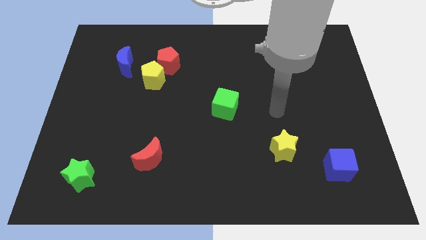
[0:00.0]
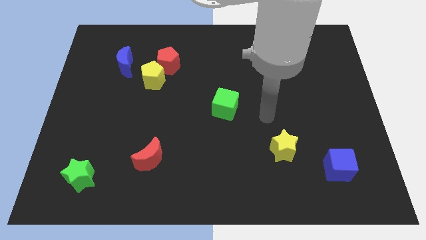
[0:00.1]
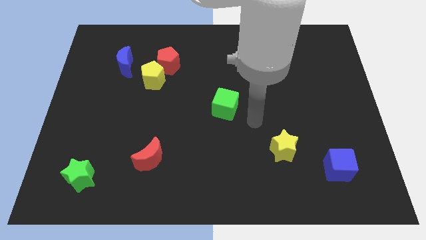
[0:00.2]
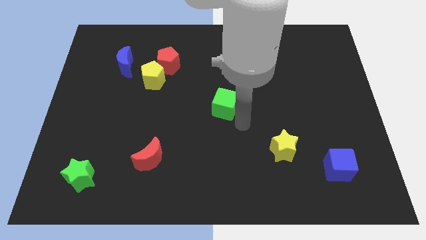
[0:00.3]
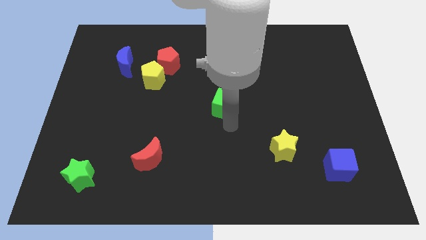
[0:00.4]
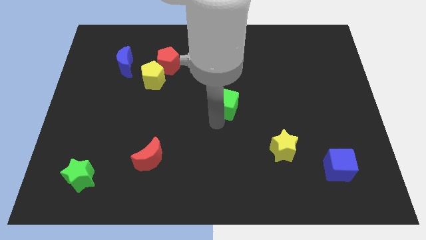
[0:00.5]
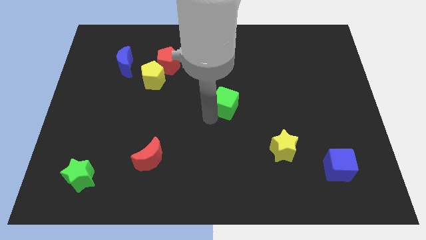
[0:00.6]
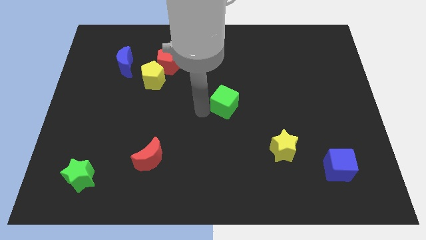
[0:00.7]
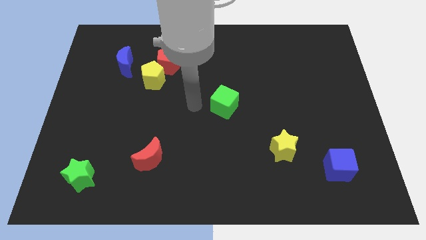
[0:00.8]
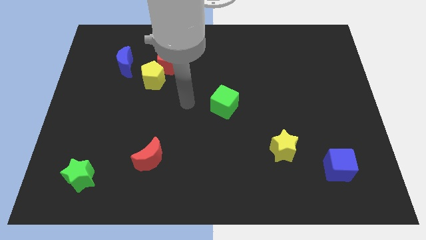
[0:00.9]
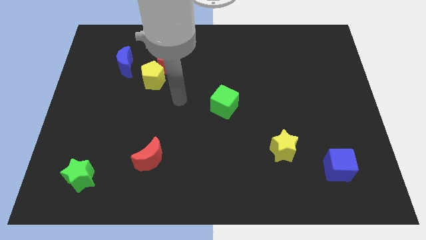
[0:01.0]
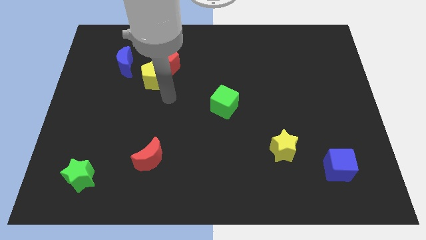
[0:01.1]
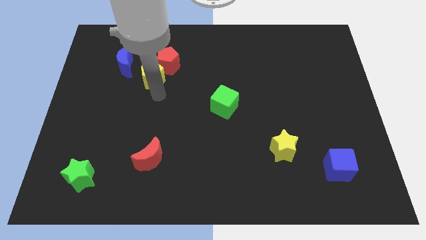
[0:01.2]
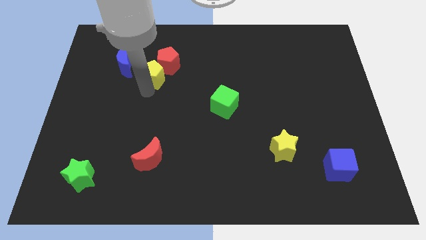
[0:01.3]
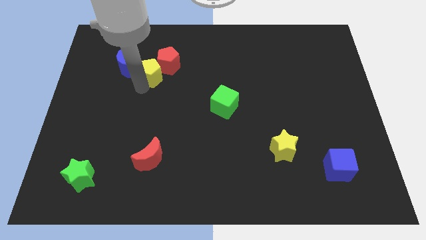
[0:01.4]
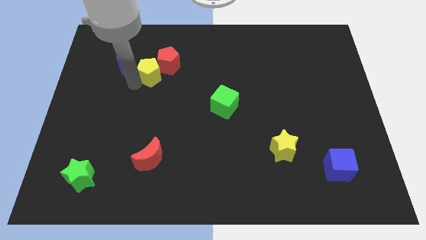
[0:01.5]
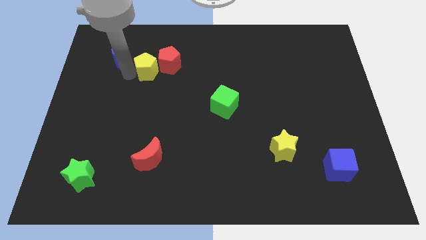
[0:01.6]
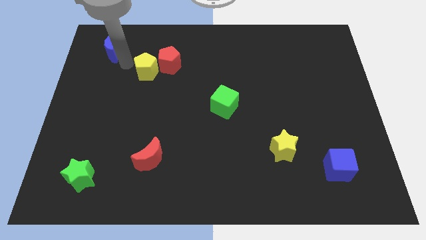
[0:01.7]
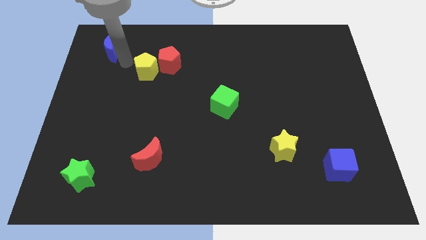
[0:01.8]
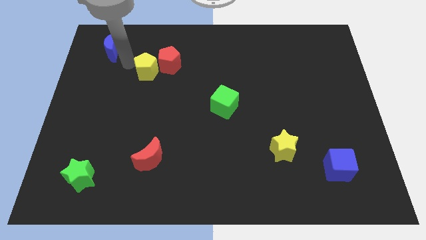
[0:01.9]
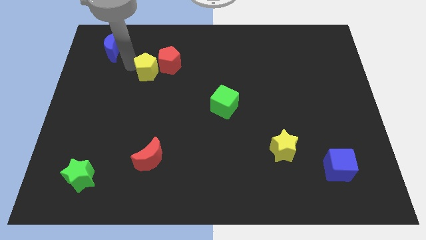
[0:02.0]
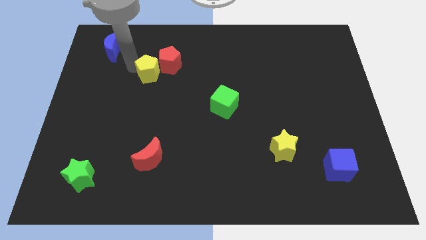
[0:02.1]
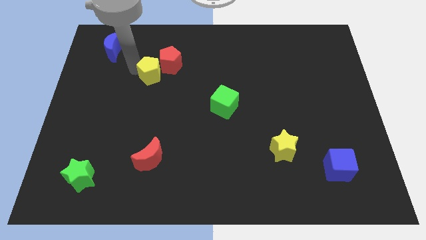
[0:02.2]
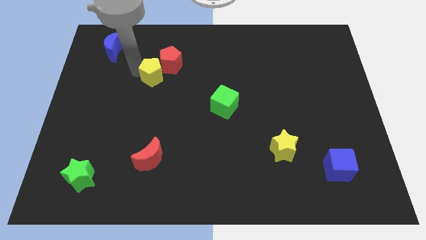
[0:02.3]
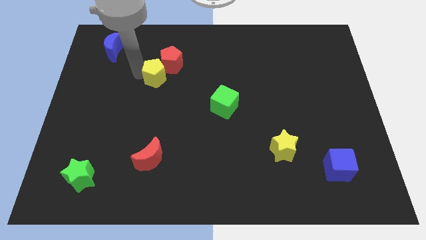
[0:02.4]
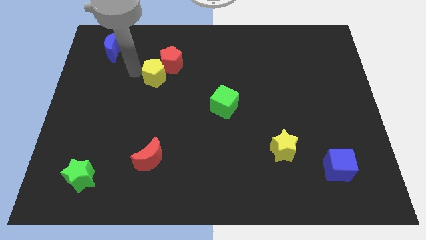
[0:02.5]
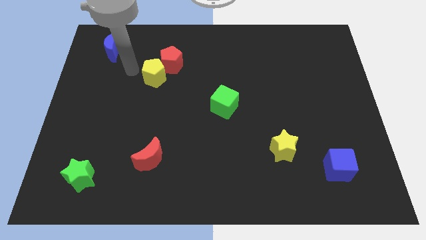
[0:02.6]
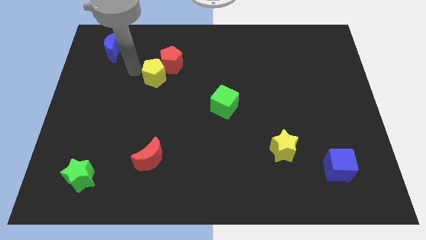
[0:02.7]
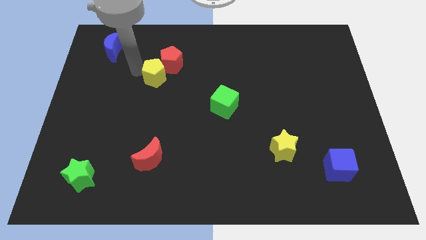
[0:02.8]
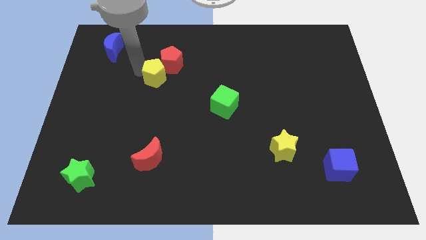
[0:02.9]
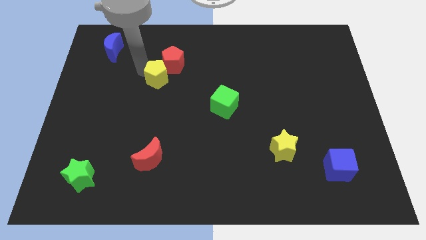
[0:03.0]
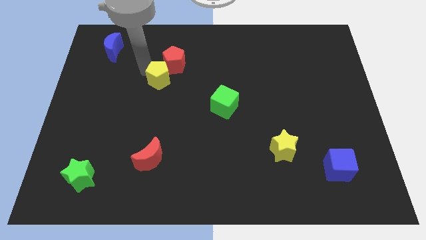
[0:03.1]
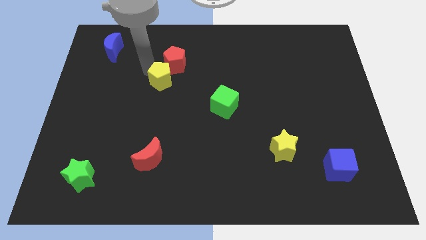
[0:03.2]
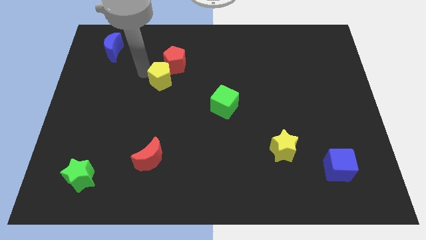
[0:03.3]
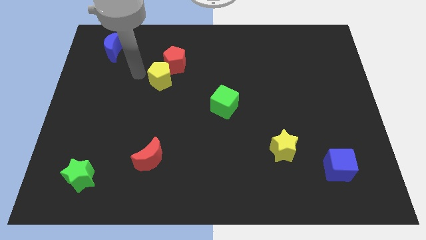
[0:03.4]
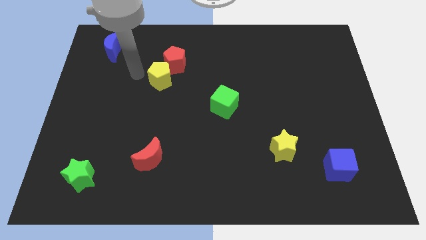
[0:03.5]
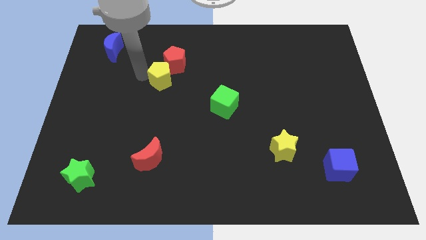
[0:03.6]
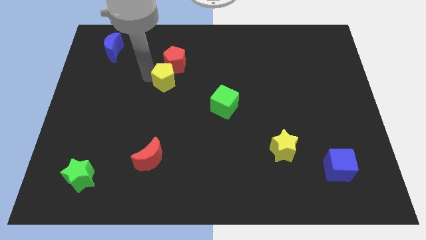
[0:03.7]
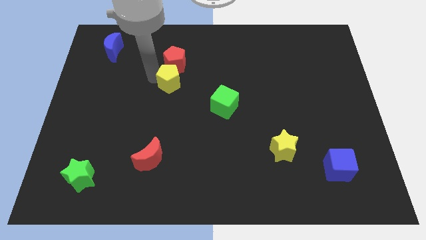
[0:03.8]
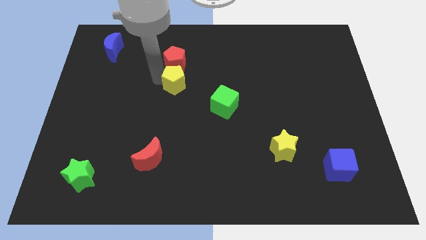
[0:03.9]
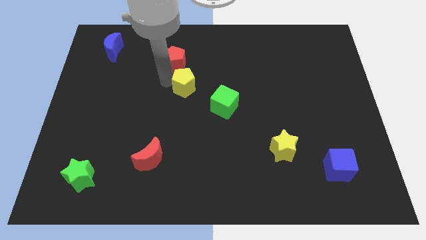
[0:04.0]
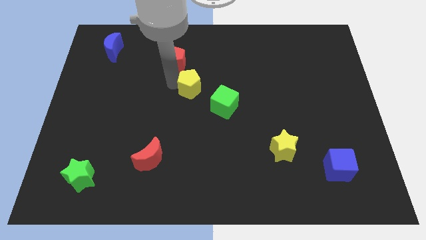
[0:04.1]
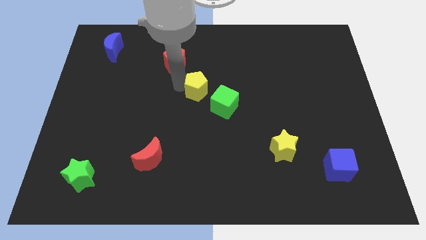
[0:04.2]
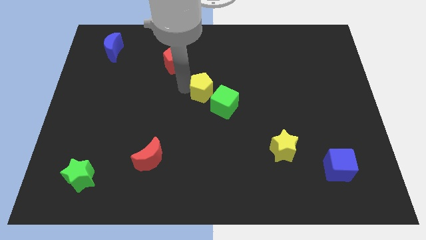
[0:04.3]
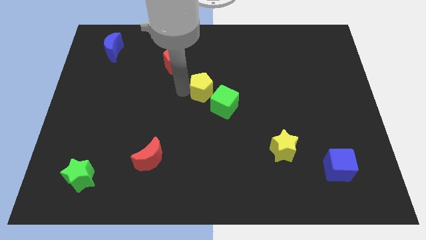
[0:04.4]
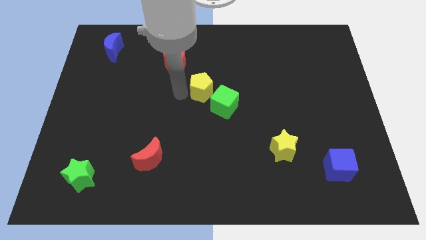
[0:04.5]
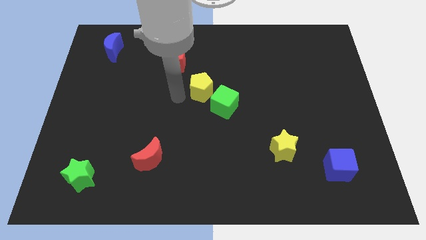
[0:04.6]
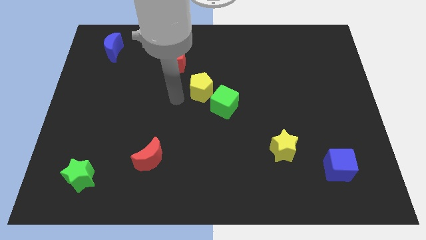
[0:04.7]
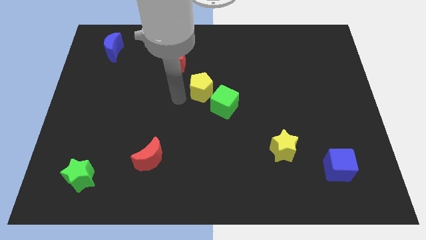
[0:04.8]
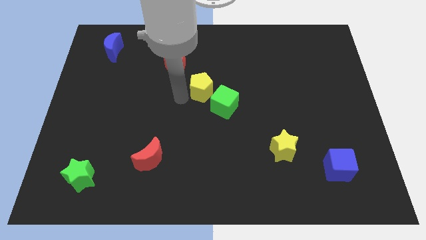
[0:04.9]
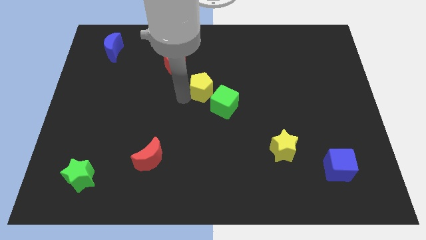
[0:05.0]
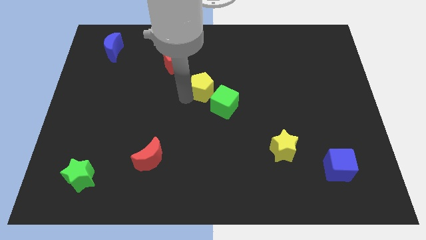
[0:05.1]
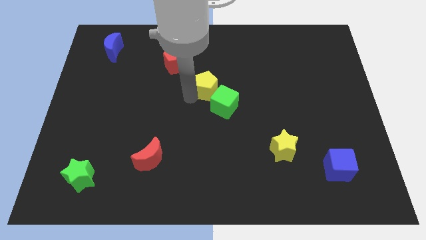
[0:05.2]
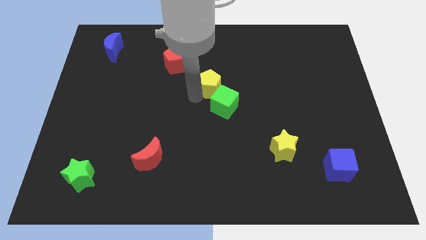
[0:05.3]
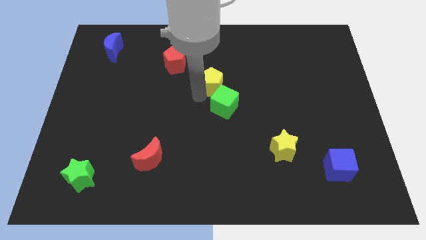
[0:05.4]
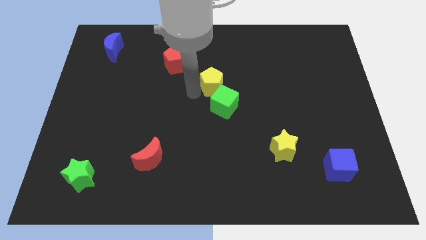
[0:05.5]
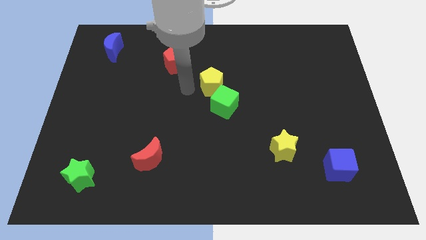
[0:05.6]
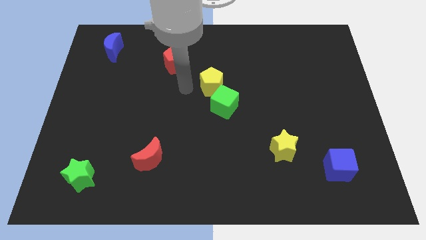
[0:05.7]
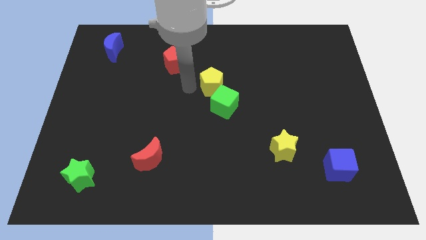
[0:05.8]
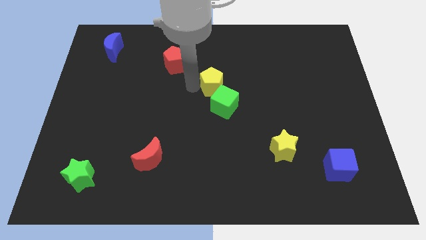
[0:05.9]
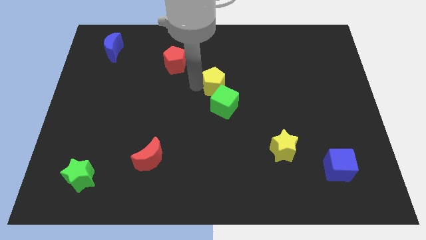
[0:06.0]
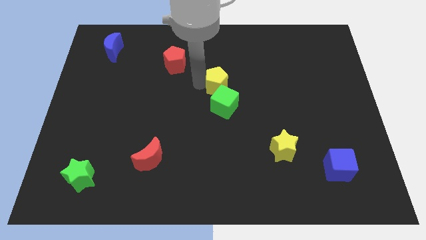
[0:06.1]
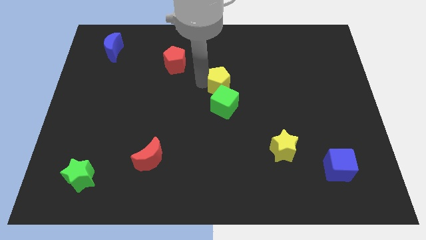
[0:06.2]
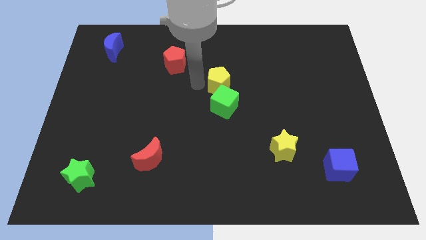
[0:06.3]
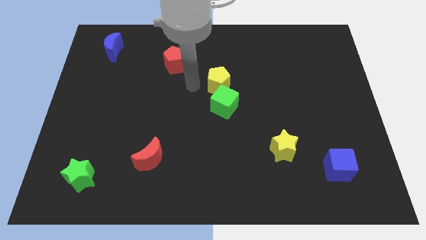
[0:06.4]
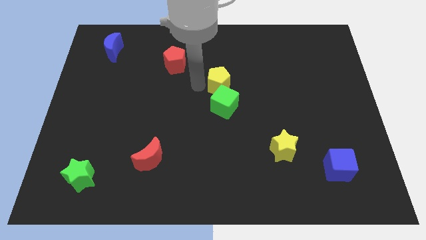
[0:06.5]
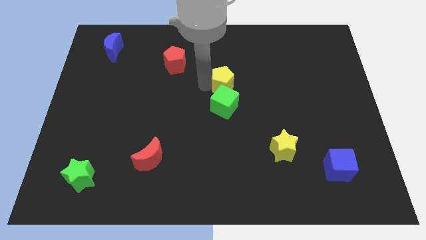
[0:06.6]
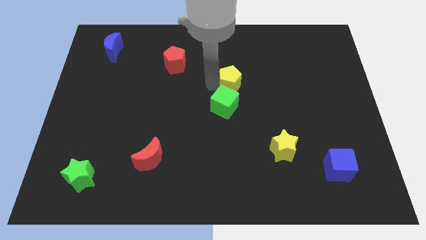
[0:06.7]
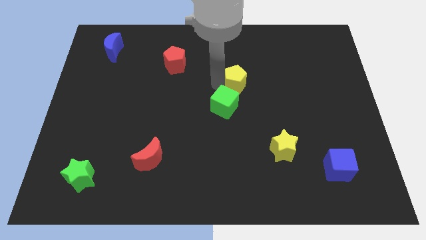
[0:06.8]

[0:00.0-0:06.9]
push the yellow pentagon to the right

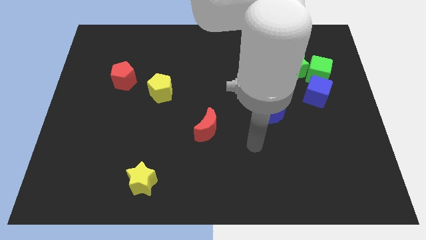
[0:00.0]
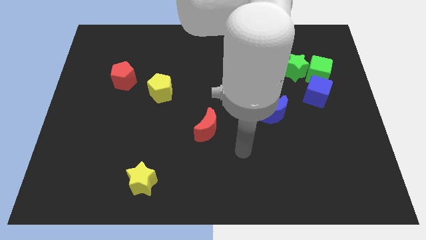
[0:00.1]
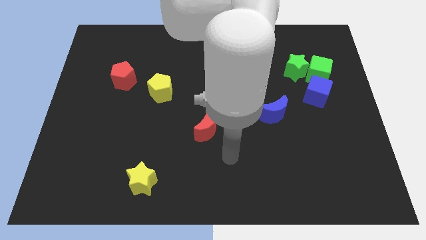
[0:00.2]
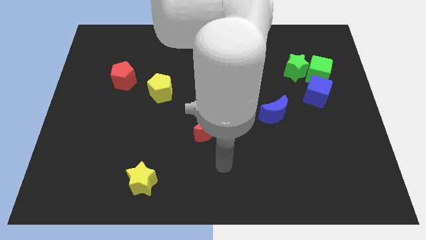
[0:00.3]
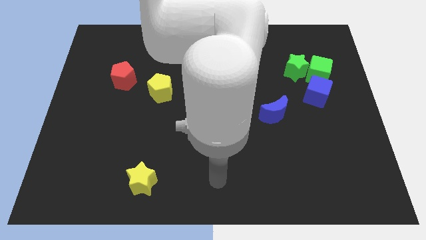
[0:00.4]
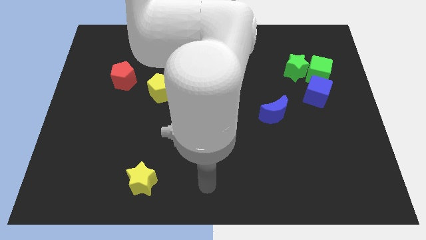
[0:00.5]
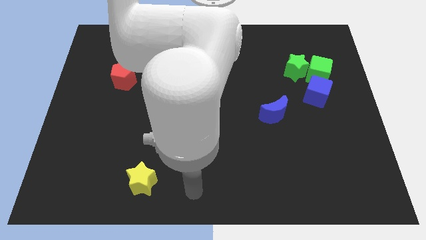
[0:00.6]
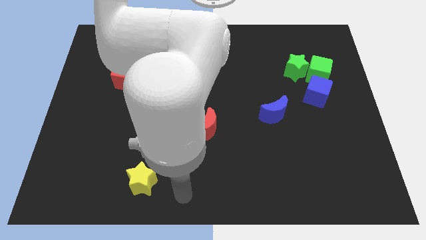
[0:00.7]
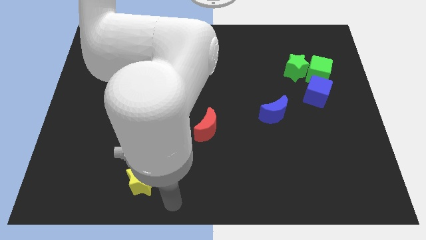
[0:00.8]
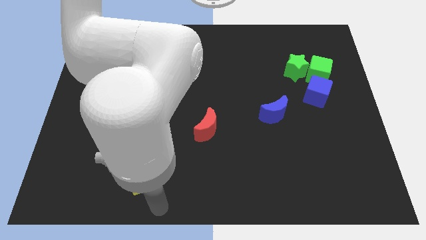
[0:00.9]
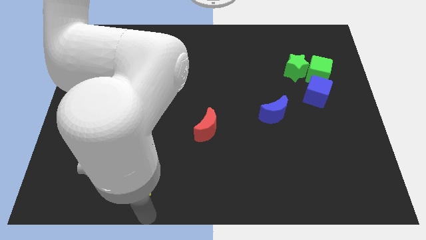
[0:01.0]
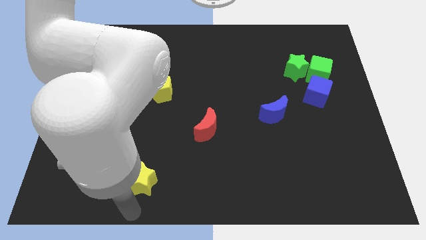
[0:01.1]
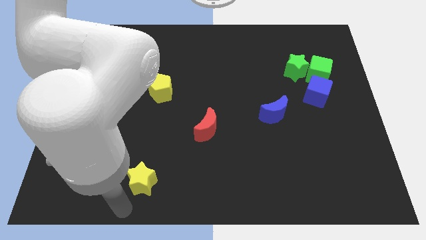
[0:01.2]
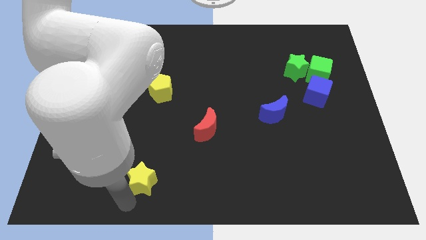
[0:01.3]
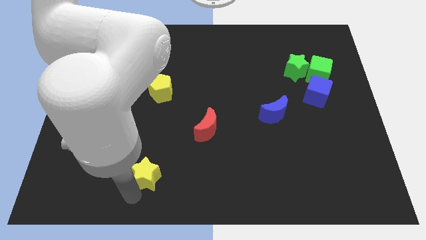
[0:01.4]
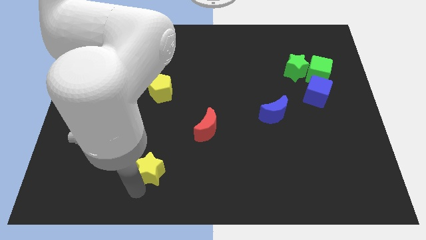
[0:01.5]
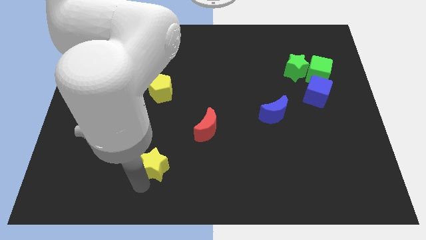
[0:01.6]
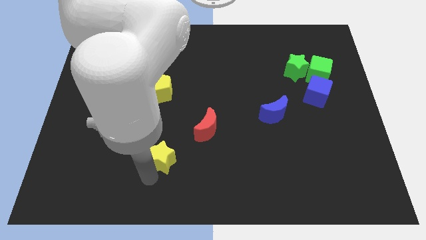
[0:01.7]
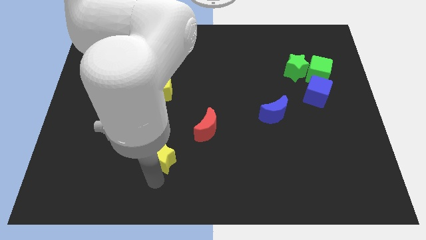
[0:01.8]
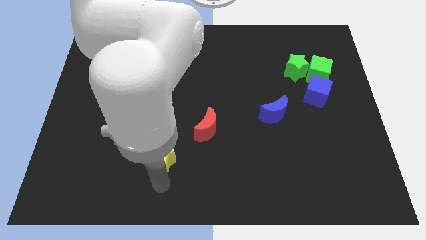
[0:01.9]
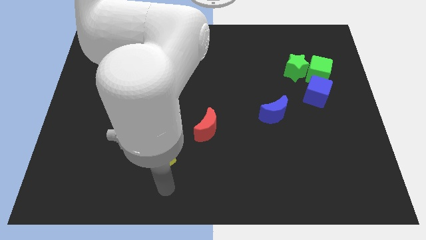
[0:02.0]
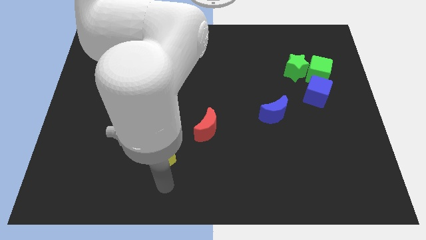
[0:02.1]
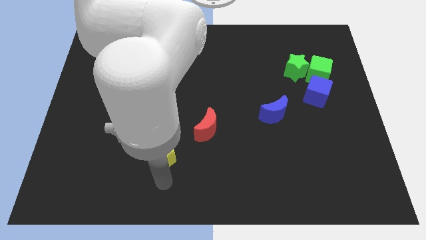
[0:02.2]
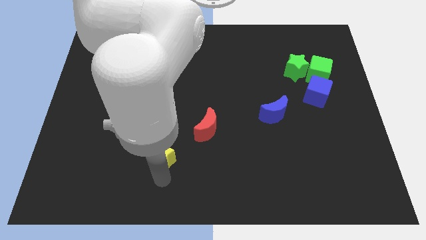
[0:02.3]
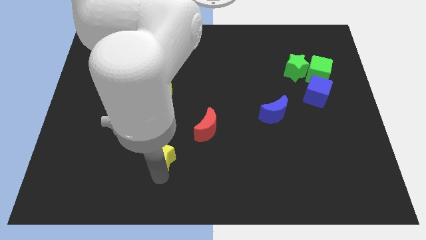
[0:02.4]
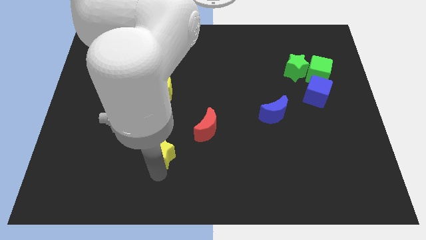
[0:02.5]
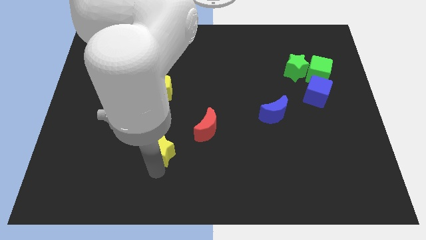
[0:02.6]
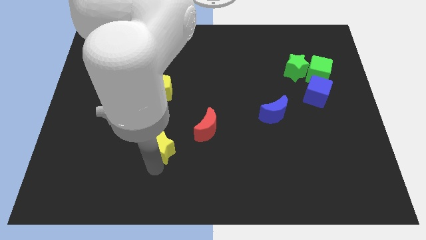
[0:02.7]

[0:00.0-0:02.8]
slide the yellow star a little bit up
